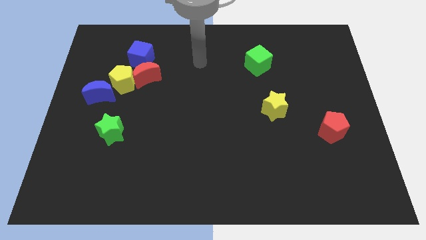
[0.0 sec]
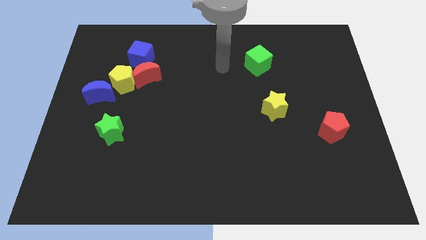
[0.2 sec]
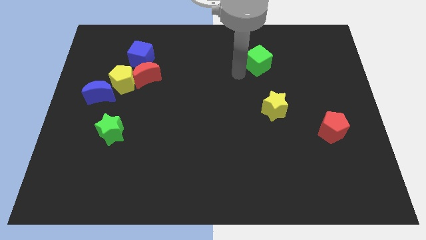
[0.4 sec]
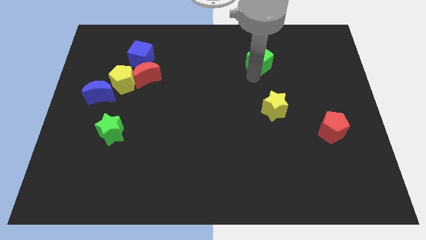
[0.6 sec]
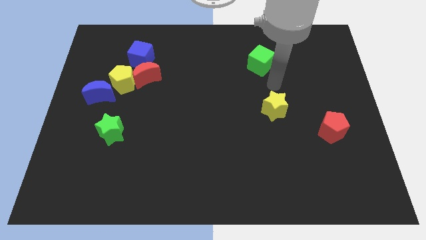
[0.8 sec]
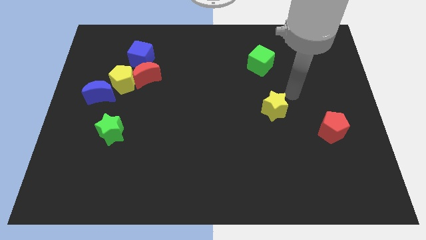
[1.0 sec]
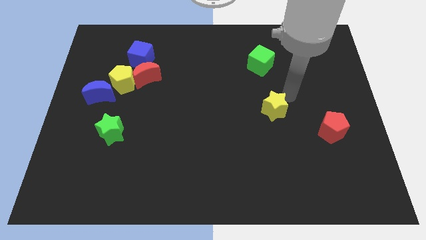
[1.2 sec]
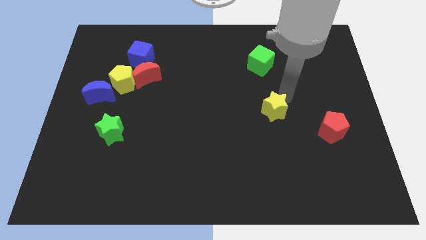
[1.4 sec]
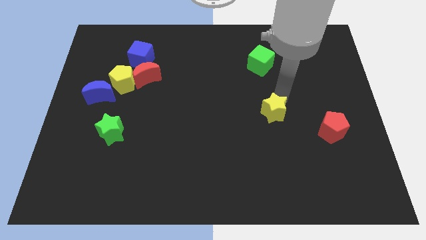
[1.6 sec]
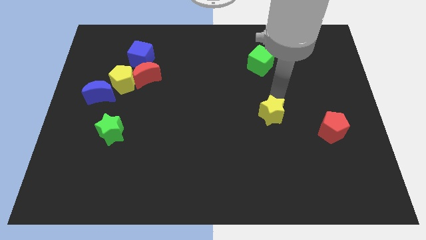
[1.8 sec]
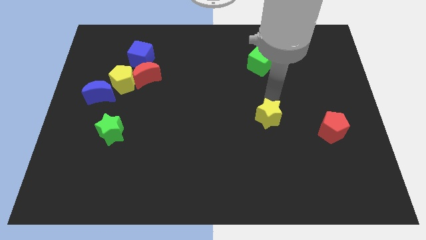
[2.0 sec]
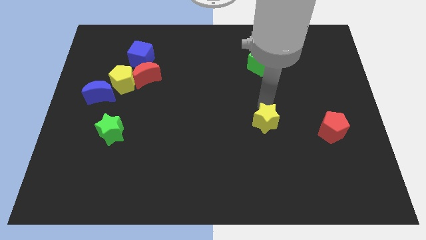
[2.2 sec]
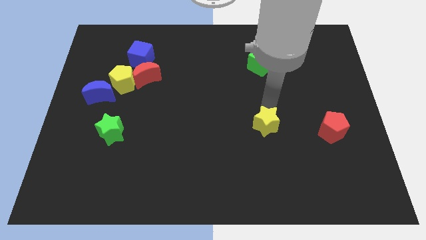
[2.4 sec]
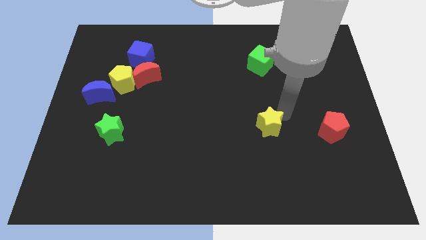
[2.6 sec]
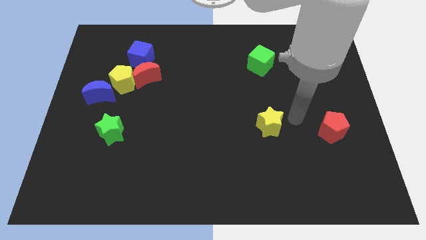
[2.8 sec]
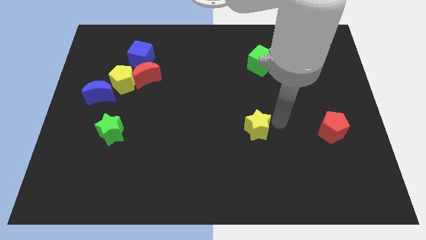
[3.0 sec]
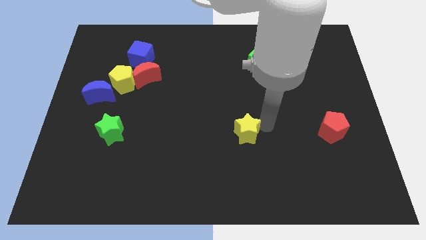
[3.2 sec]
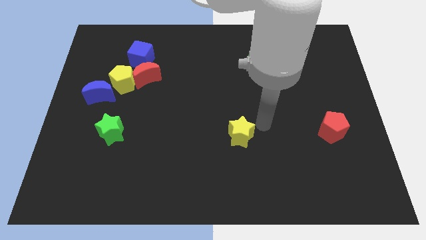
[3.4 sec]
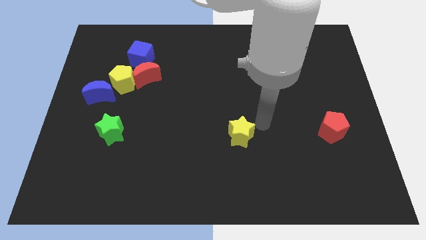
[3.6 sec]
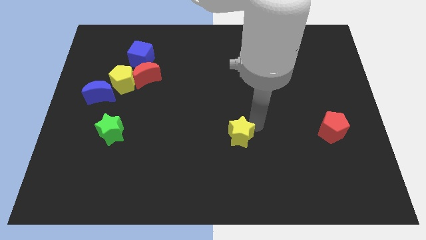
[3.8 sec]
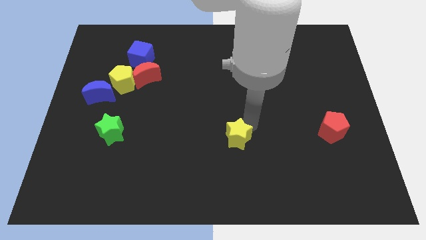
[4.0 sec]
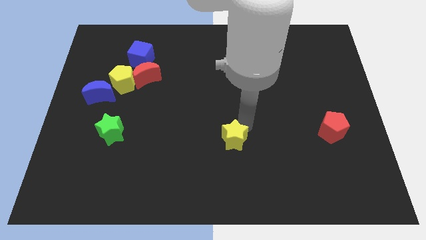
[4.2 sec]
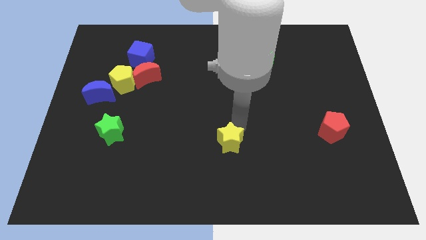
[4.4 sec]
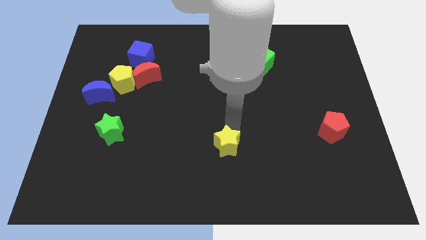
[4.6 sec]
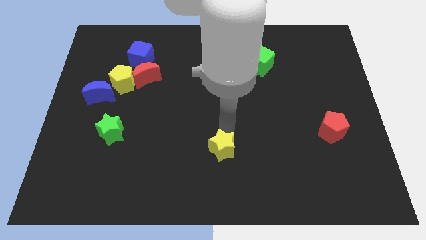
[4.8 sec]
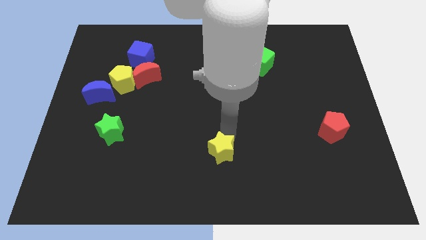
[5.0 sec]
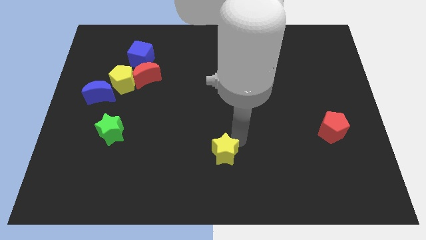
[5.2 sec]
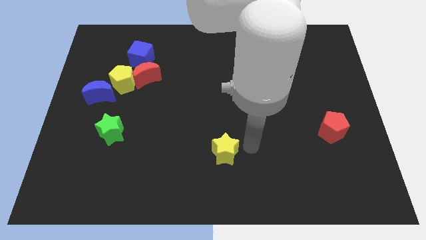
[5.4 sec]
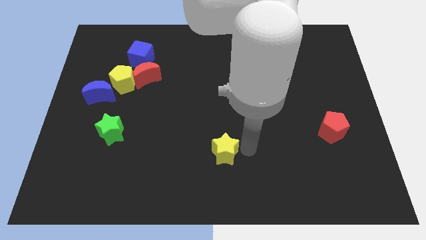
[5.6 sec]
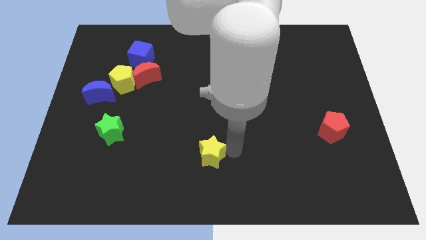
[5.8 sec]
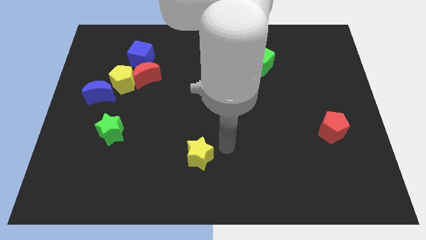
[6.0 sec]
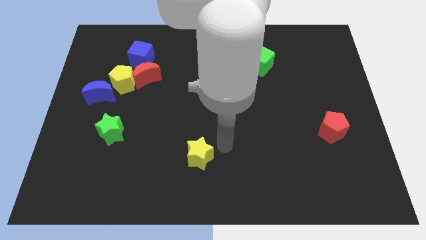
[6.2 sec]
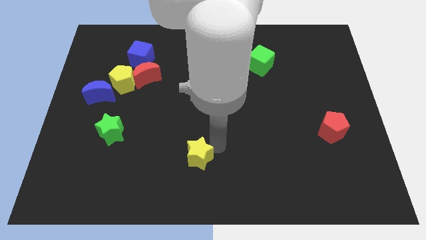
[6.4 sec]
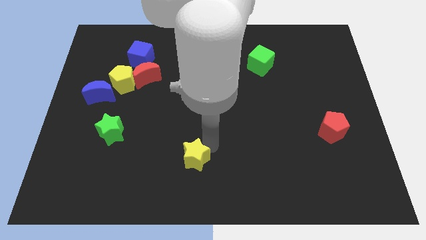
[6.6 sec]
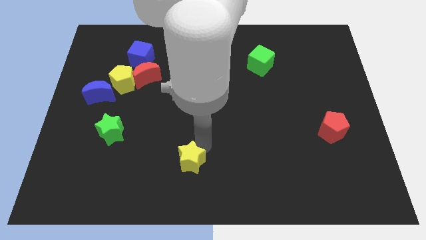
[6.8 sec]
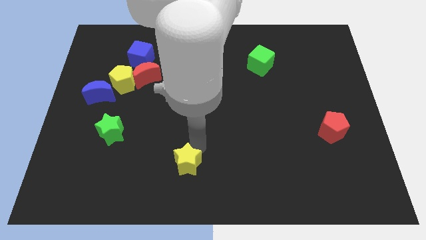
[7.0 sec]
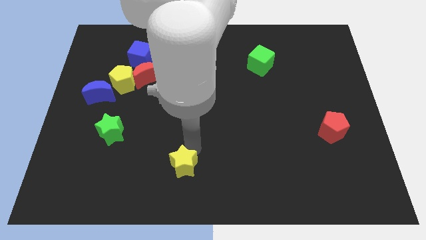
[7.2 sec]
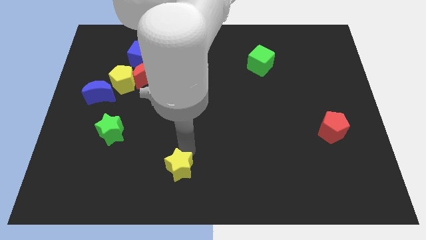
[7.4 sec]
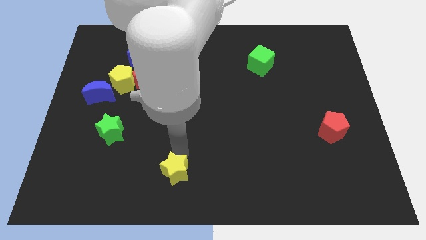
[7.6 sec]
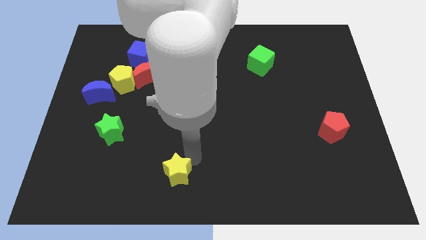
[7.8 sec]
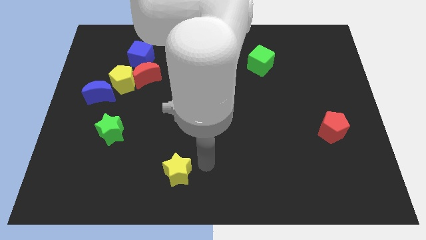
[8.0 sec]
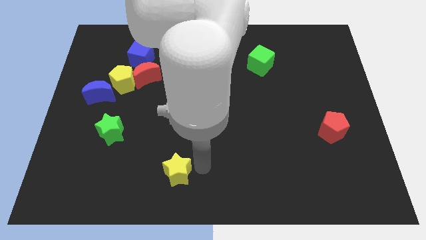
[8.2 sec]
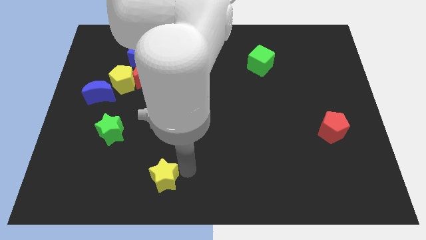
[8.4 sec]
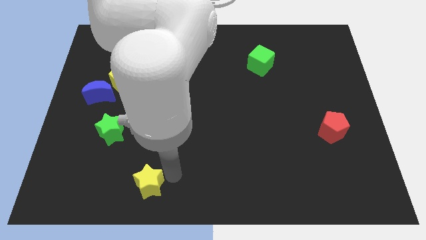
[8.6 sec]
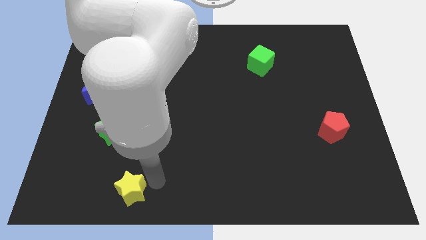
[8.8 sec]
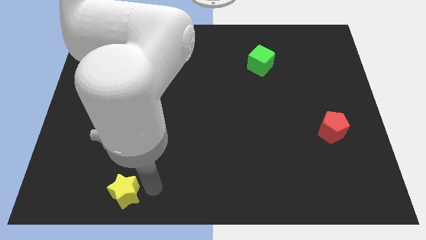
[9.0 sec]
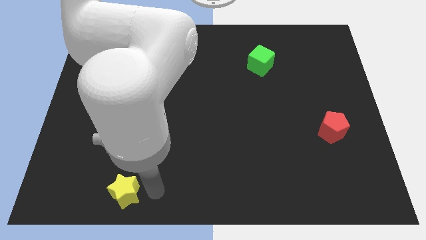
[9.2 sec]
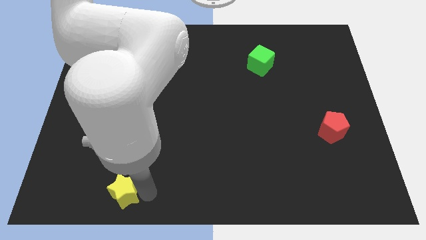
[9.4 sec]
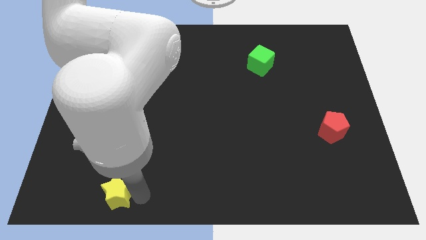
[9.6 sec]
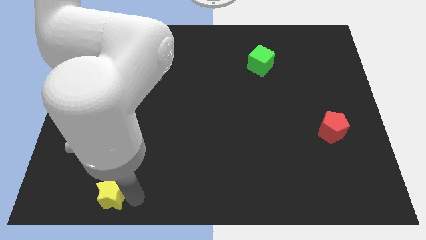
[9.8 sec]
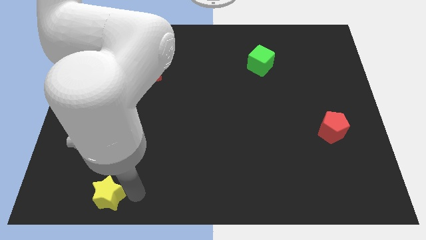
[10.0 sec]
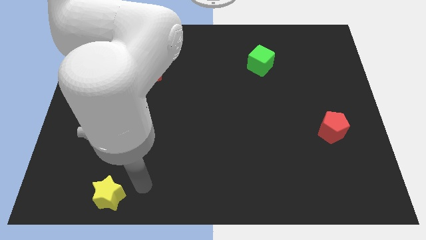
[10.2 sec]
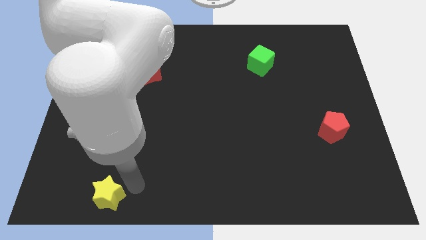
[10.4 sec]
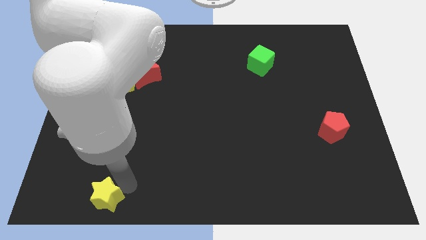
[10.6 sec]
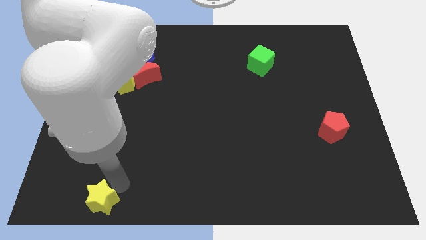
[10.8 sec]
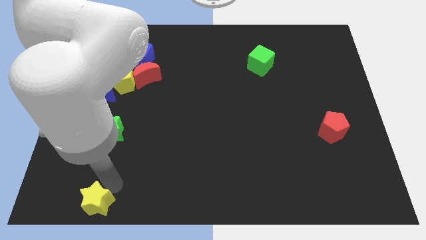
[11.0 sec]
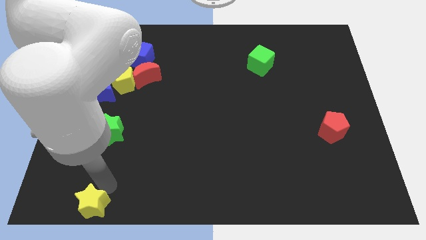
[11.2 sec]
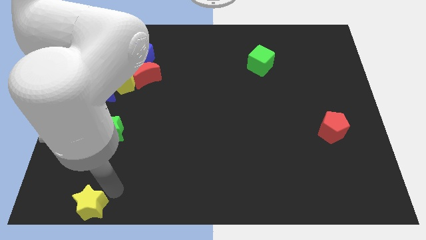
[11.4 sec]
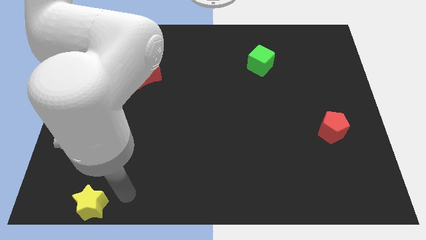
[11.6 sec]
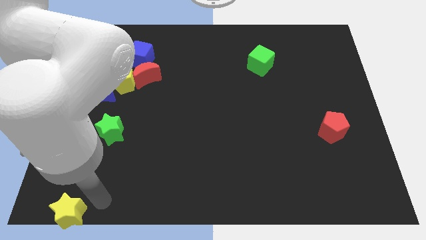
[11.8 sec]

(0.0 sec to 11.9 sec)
slide the yellow star to the lower left corner

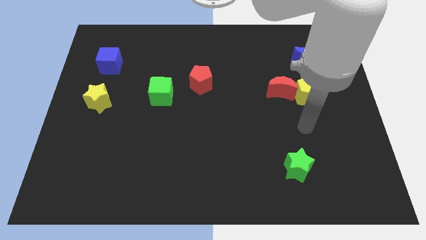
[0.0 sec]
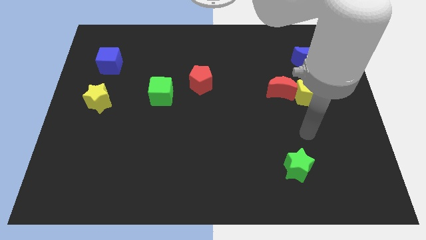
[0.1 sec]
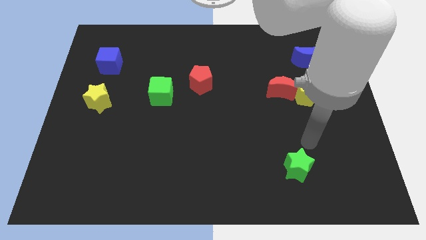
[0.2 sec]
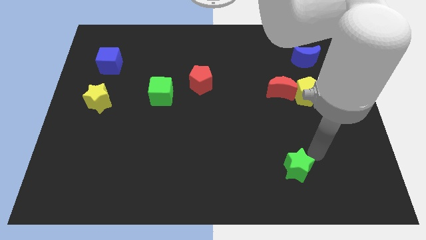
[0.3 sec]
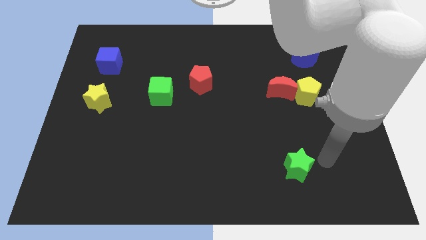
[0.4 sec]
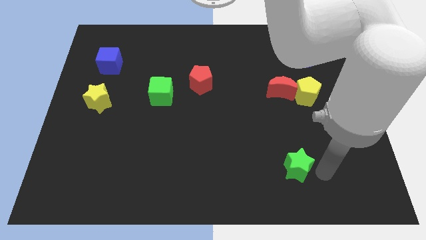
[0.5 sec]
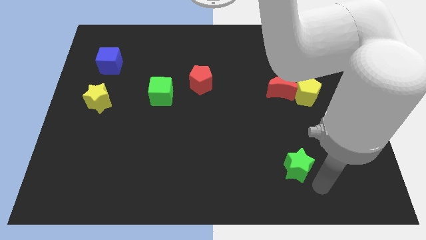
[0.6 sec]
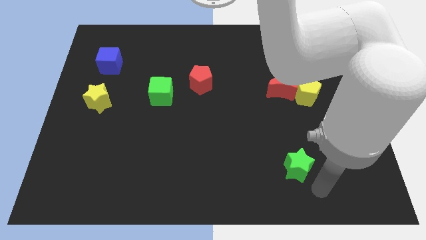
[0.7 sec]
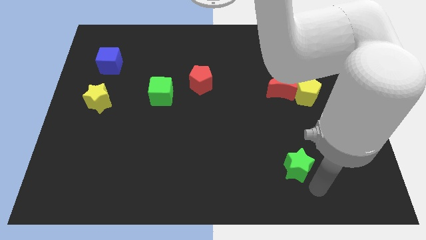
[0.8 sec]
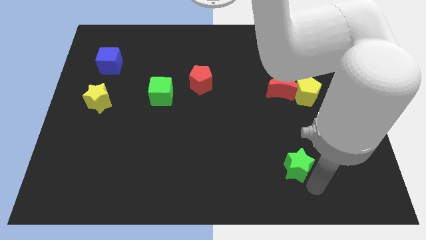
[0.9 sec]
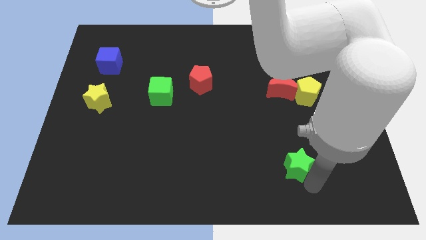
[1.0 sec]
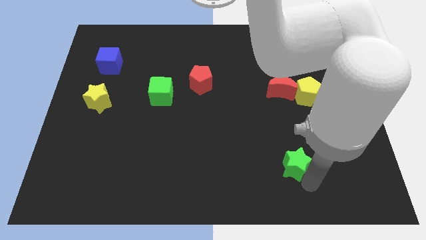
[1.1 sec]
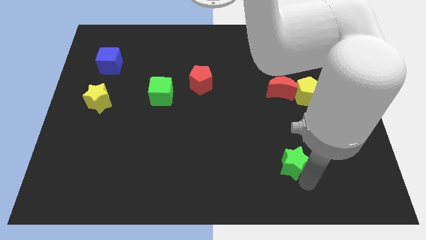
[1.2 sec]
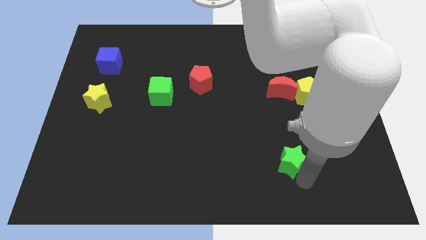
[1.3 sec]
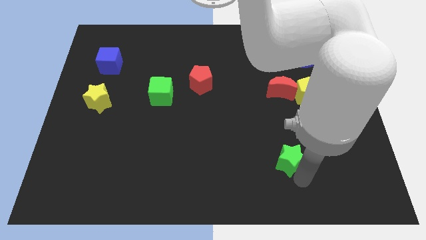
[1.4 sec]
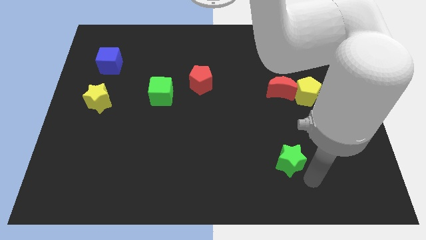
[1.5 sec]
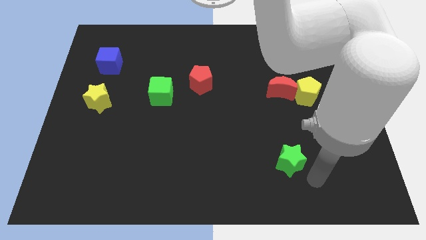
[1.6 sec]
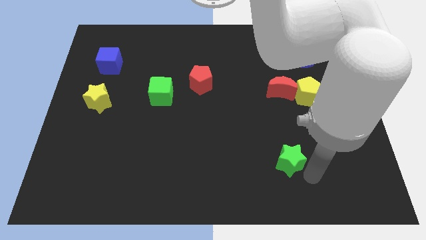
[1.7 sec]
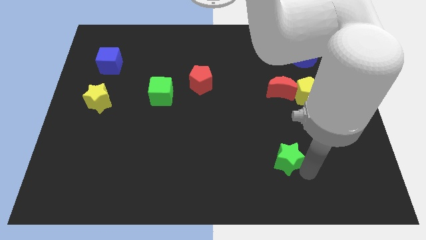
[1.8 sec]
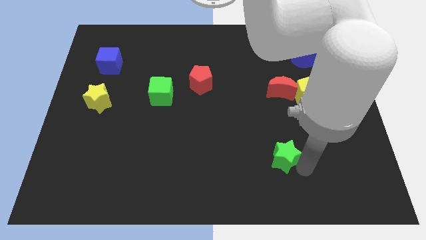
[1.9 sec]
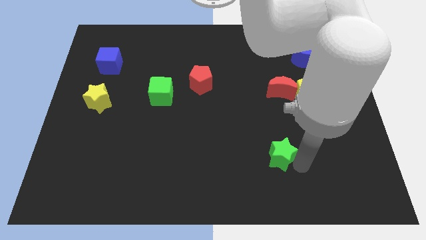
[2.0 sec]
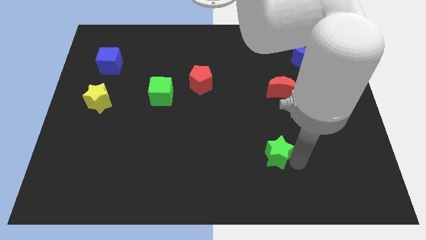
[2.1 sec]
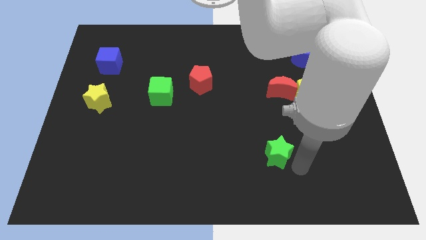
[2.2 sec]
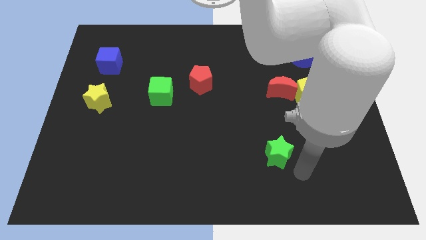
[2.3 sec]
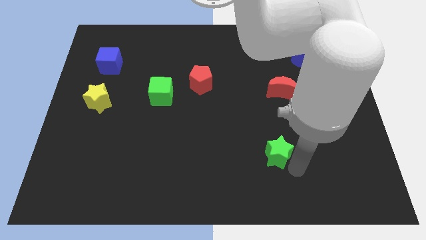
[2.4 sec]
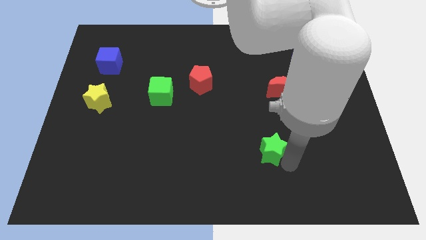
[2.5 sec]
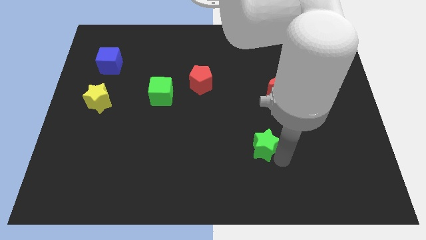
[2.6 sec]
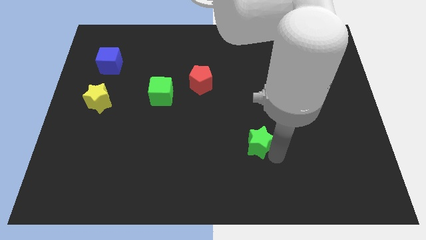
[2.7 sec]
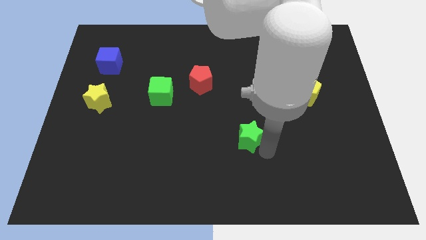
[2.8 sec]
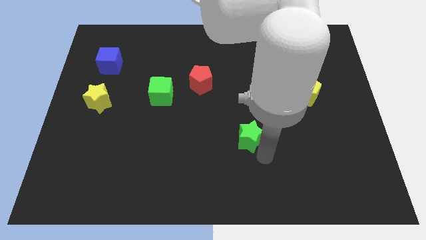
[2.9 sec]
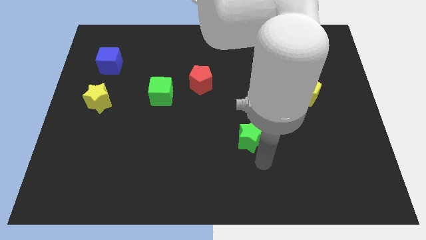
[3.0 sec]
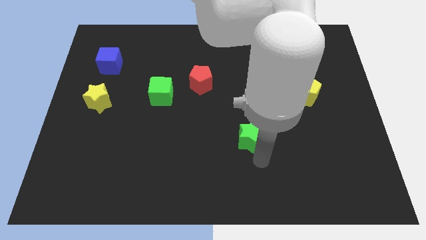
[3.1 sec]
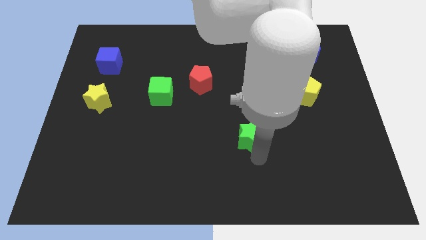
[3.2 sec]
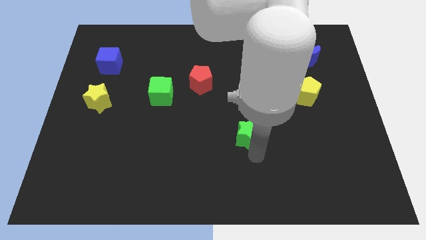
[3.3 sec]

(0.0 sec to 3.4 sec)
slide the green star to the center of the board
